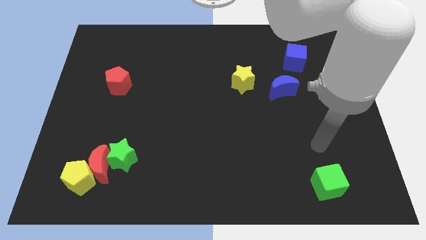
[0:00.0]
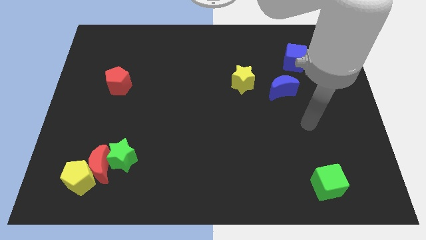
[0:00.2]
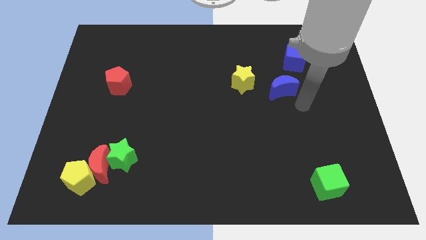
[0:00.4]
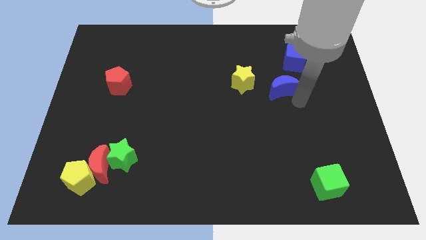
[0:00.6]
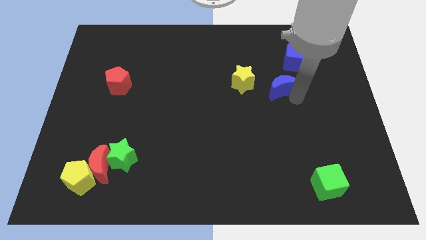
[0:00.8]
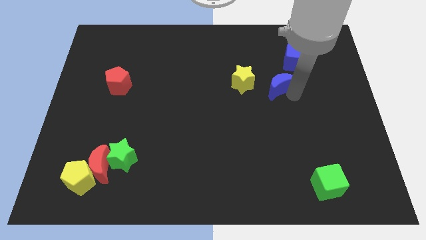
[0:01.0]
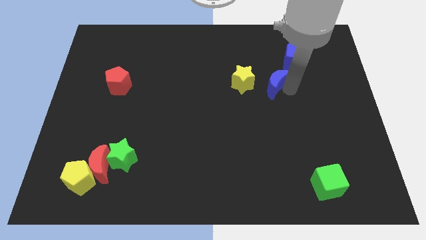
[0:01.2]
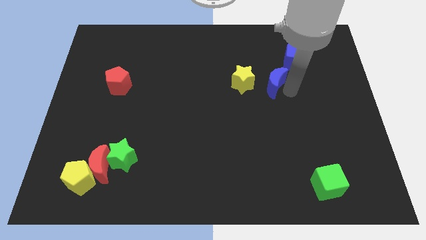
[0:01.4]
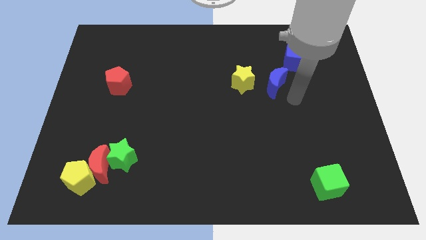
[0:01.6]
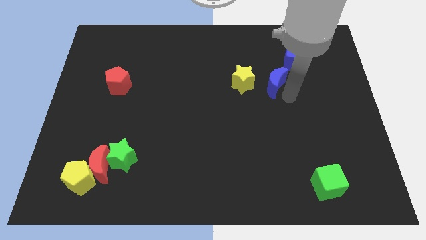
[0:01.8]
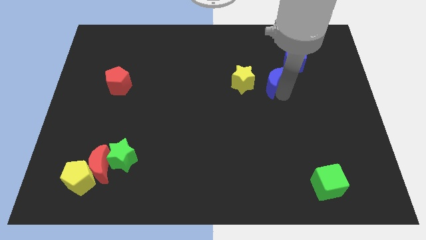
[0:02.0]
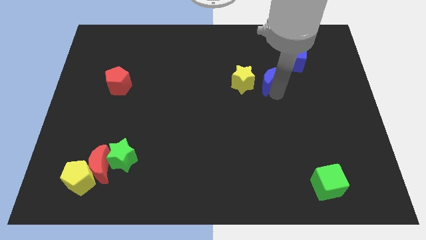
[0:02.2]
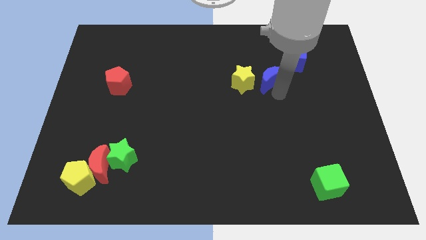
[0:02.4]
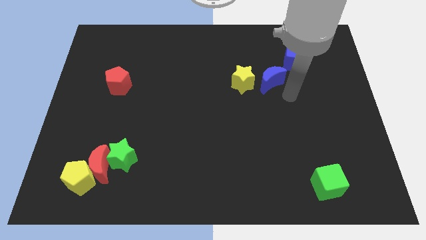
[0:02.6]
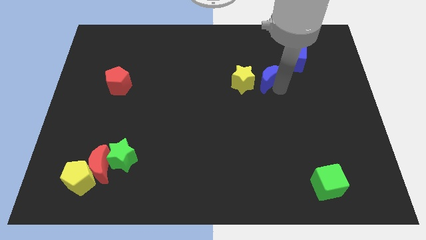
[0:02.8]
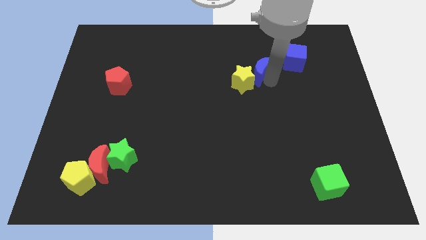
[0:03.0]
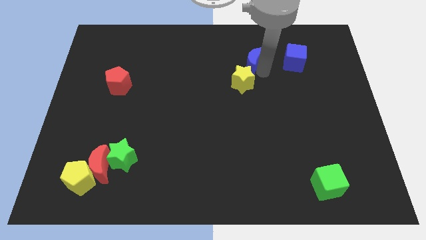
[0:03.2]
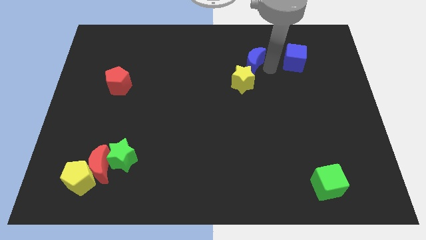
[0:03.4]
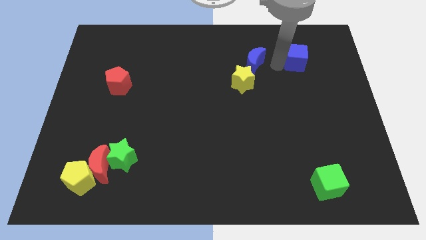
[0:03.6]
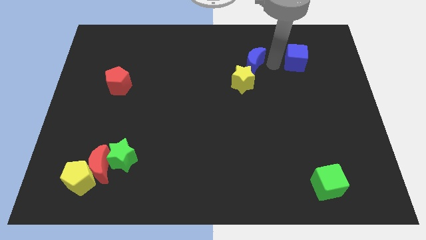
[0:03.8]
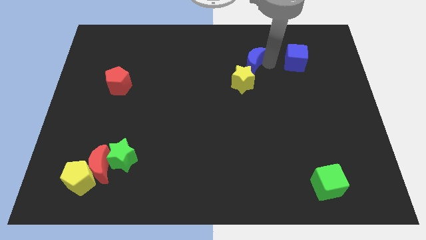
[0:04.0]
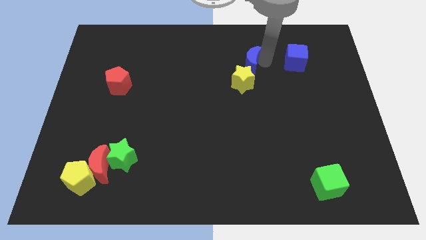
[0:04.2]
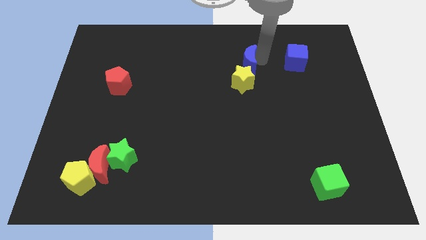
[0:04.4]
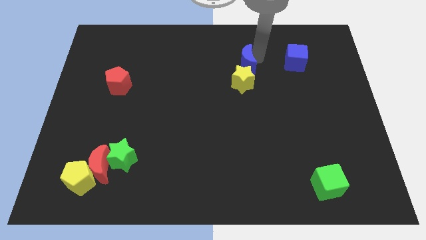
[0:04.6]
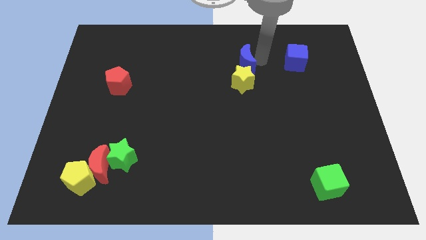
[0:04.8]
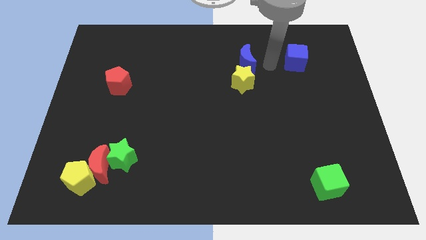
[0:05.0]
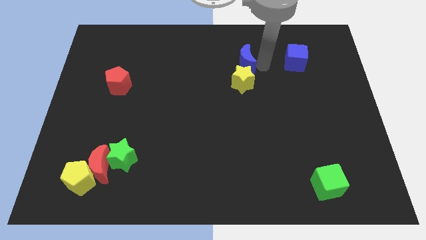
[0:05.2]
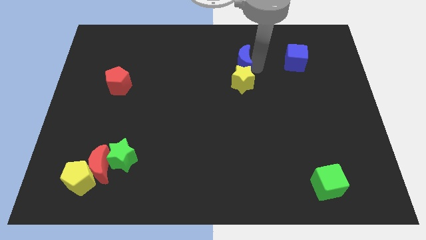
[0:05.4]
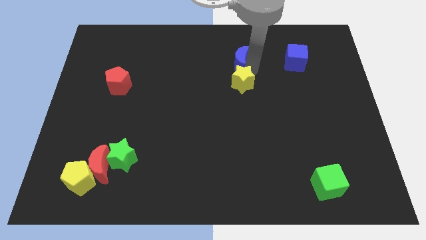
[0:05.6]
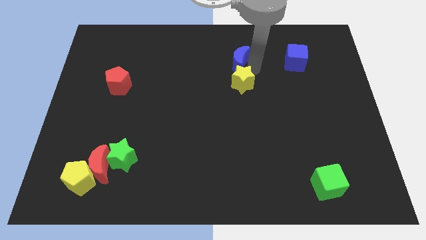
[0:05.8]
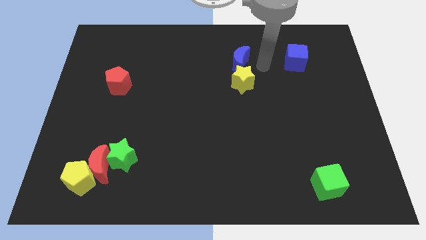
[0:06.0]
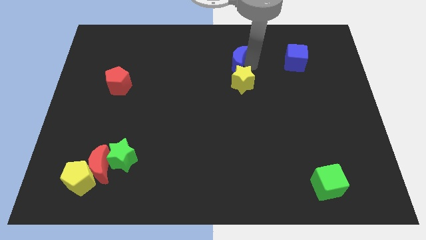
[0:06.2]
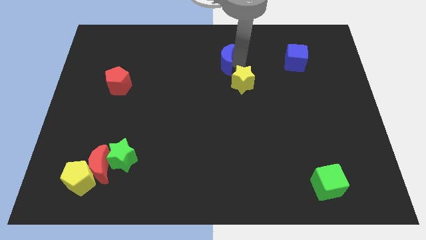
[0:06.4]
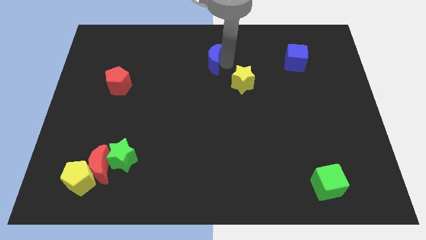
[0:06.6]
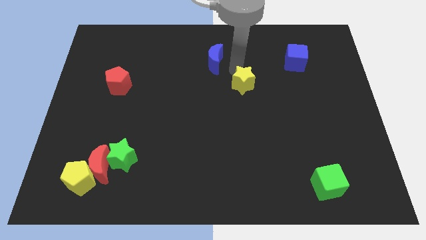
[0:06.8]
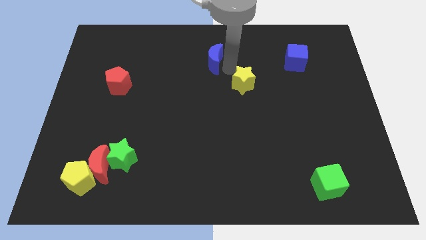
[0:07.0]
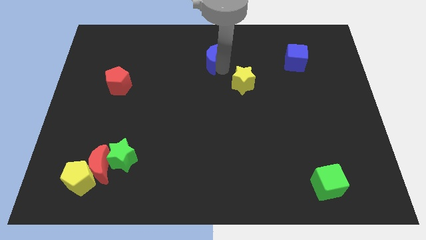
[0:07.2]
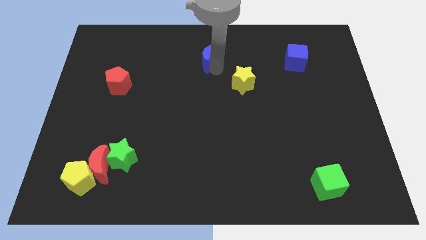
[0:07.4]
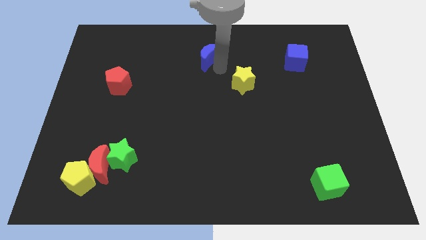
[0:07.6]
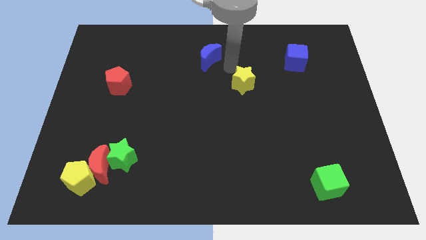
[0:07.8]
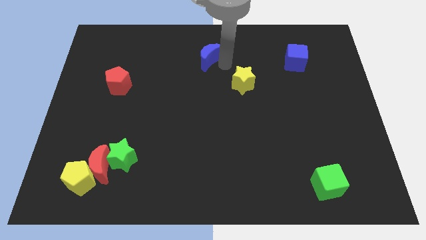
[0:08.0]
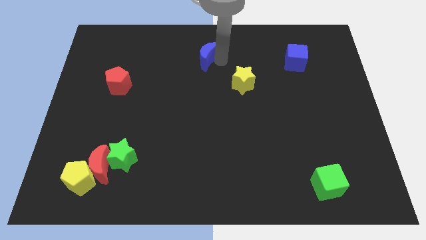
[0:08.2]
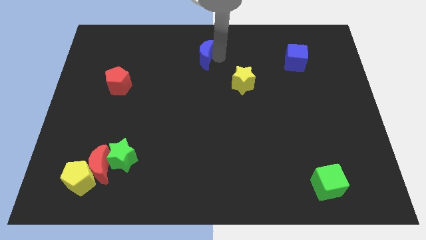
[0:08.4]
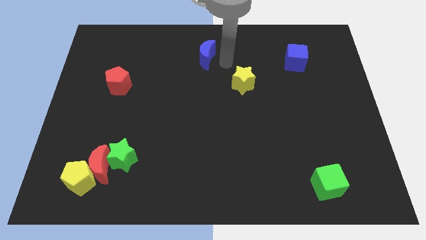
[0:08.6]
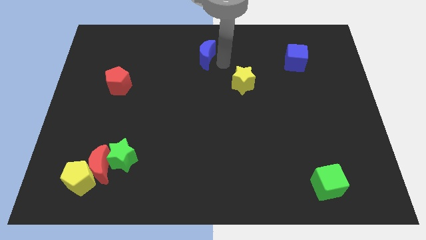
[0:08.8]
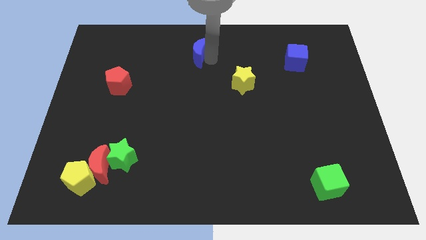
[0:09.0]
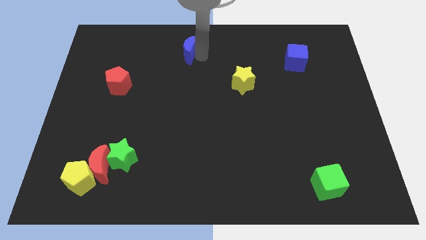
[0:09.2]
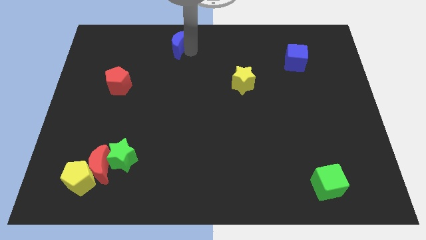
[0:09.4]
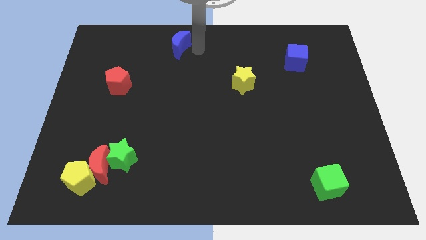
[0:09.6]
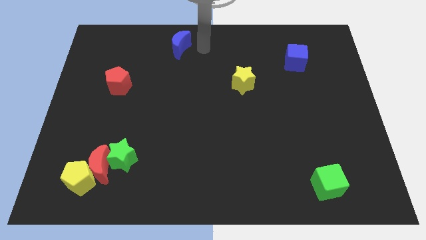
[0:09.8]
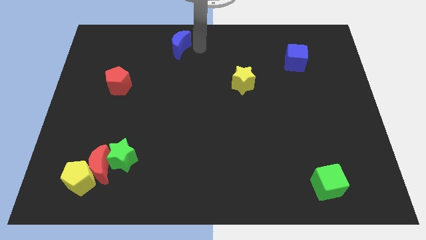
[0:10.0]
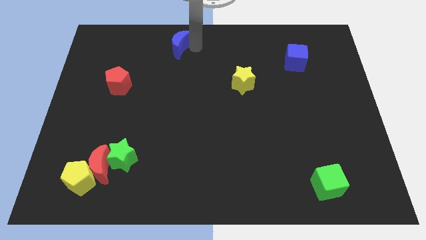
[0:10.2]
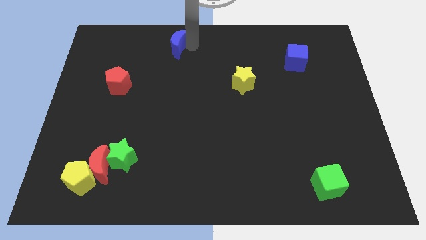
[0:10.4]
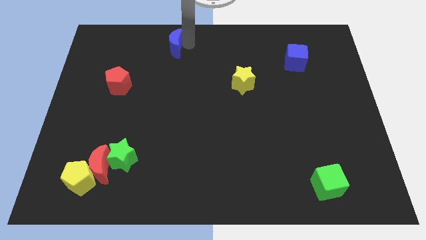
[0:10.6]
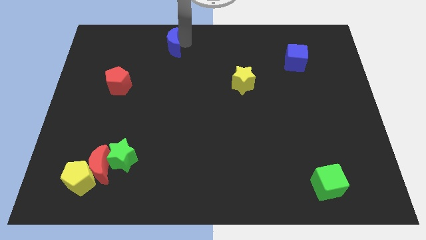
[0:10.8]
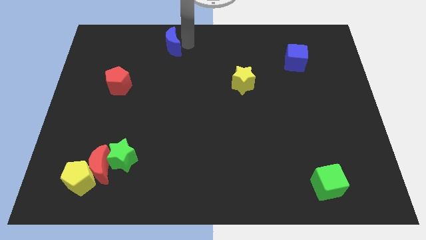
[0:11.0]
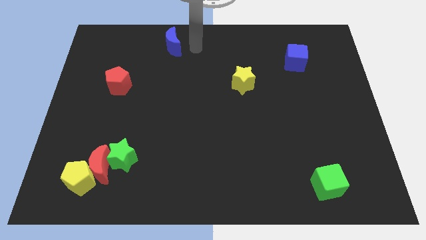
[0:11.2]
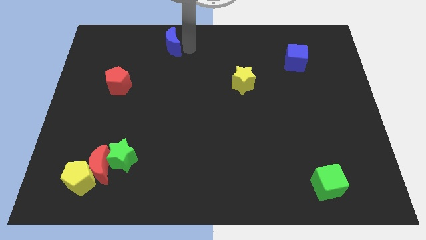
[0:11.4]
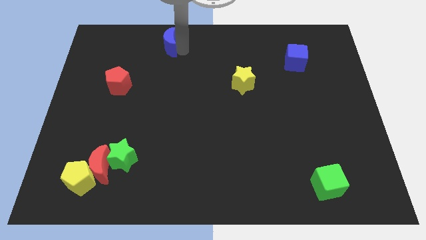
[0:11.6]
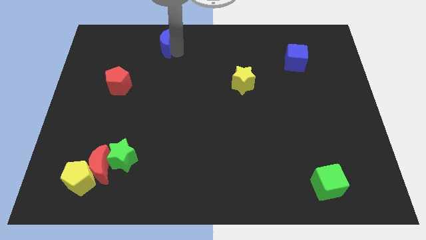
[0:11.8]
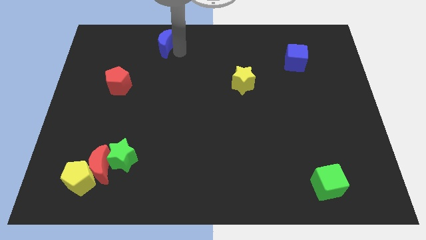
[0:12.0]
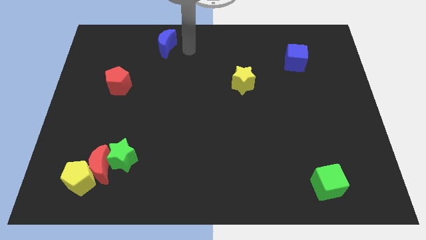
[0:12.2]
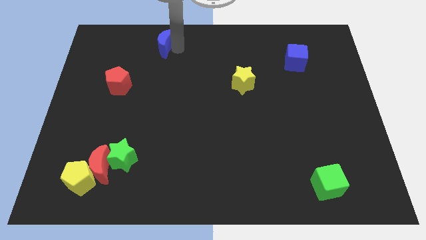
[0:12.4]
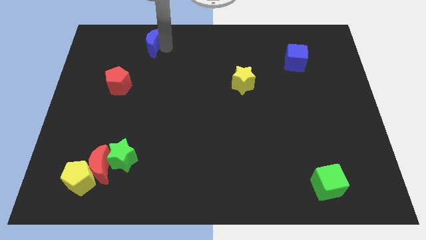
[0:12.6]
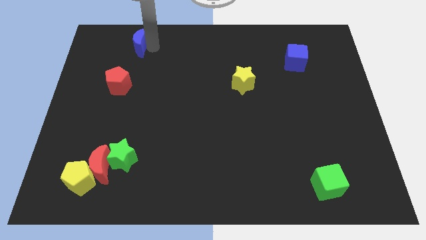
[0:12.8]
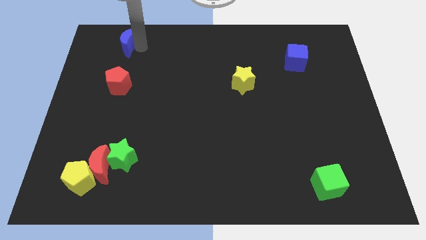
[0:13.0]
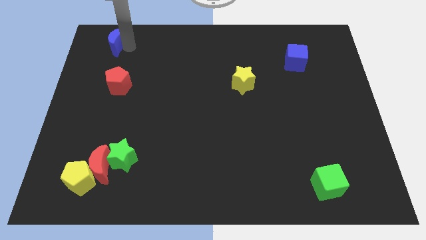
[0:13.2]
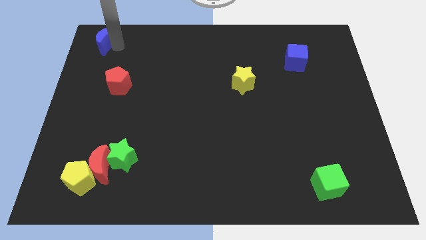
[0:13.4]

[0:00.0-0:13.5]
push the blue moon to the upper left corner
